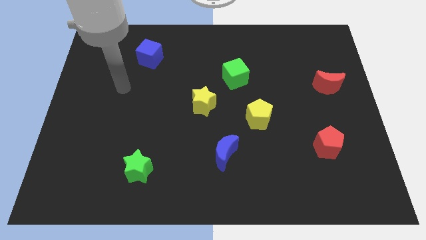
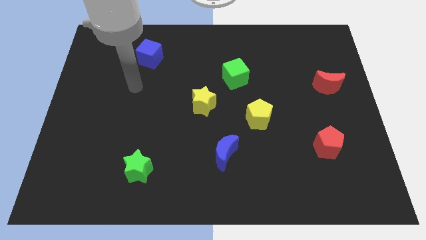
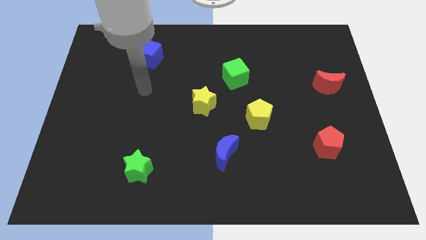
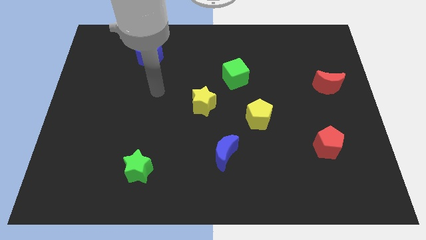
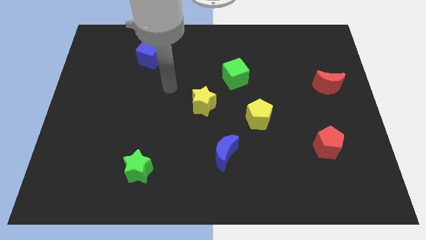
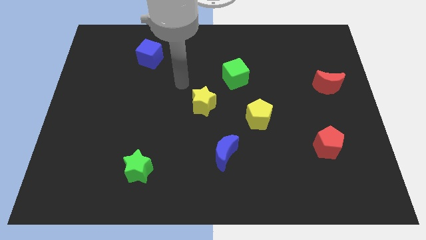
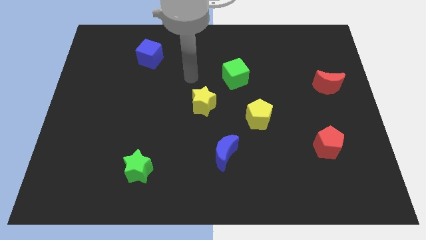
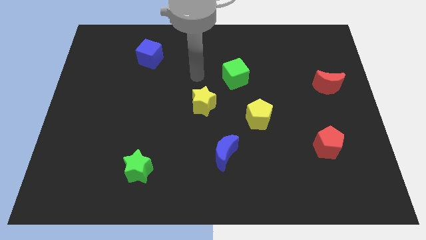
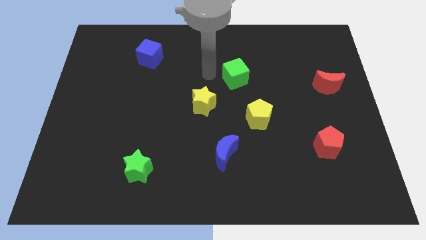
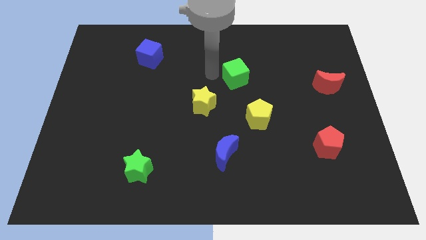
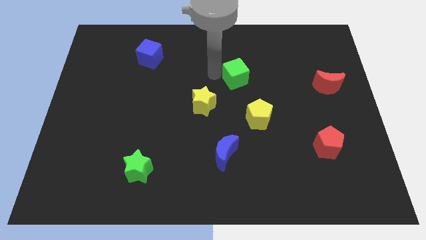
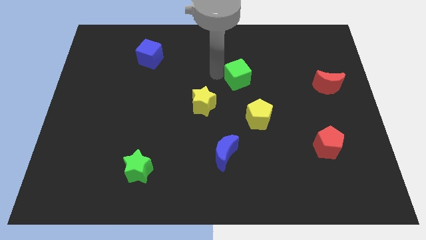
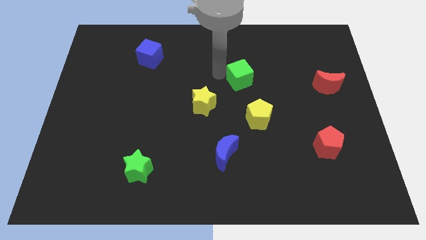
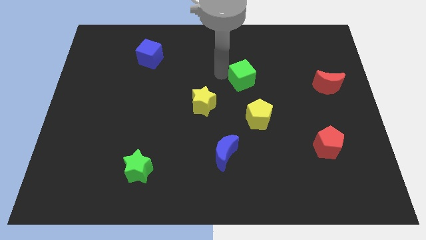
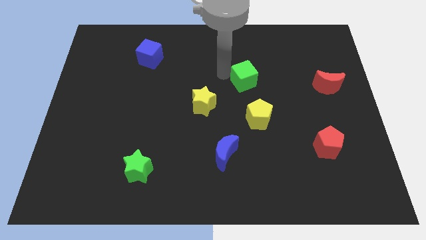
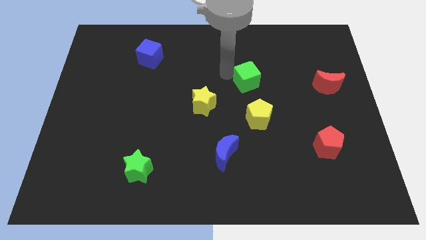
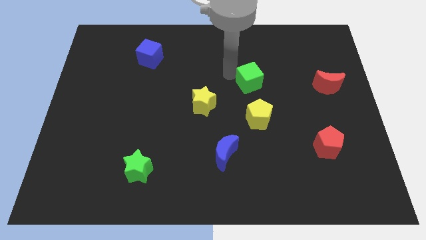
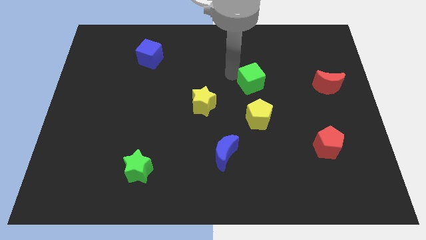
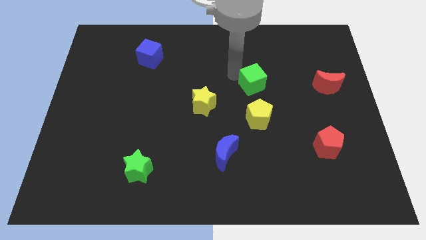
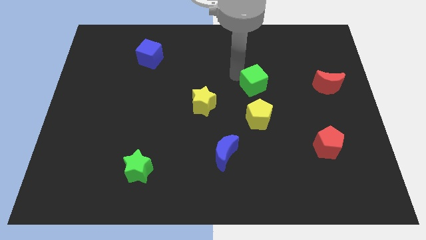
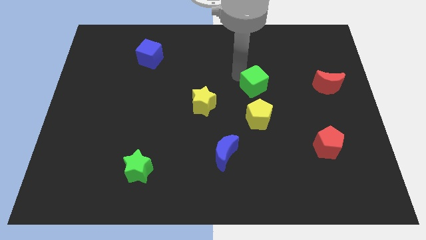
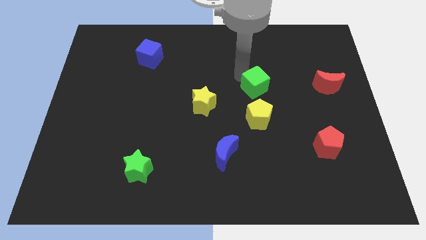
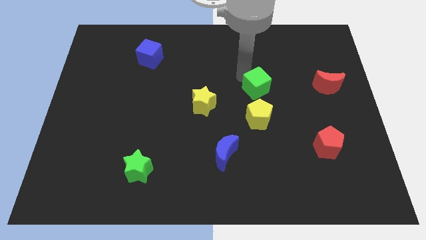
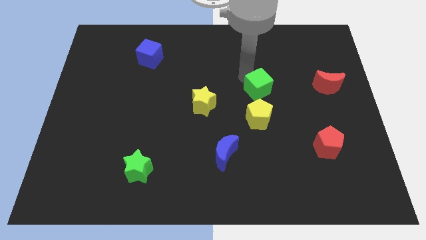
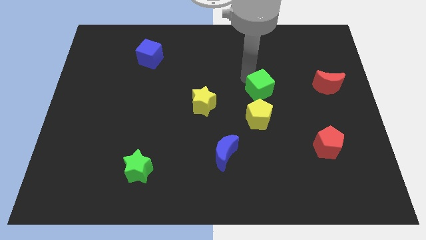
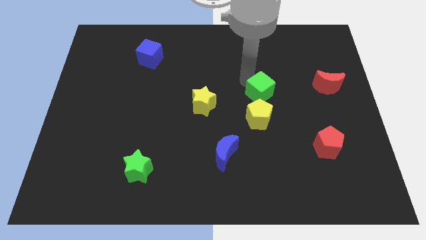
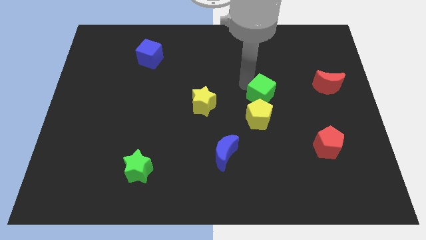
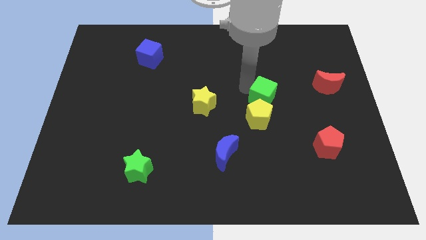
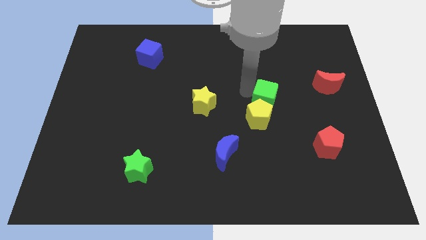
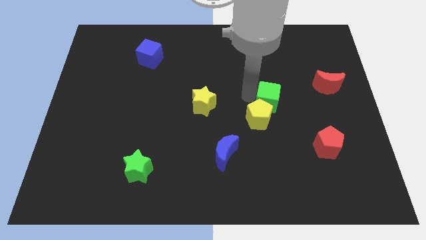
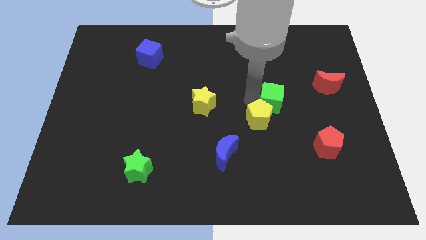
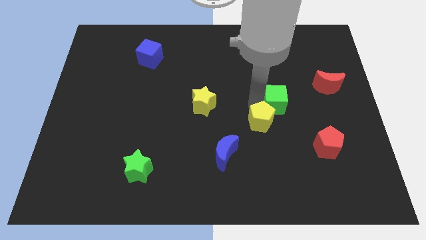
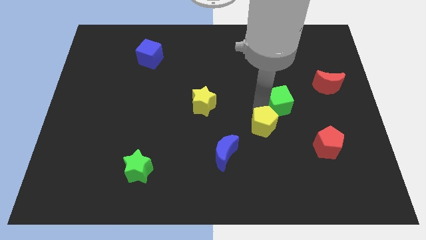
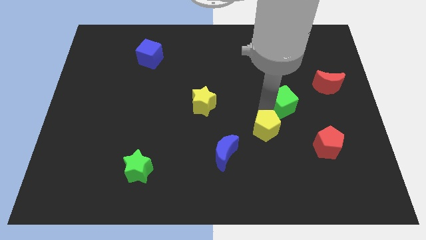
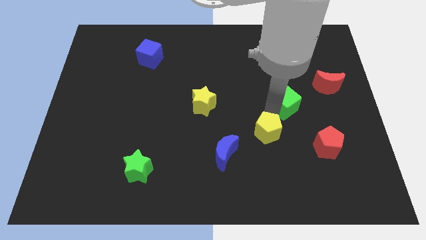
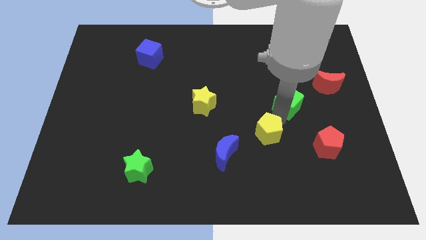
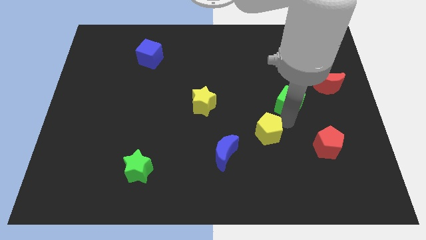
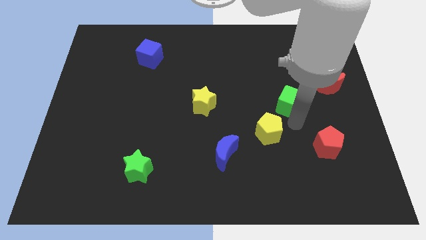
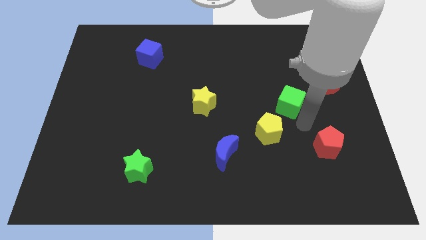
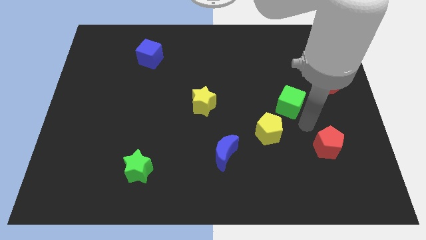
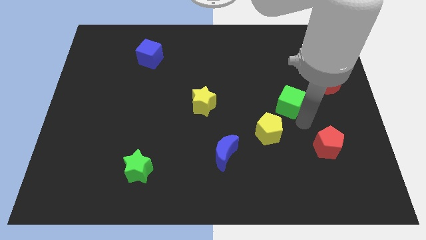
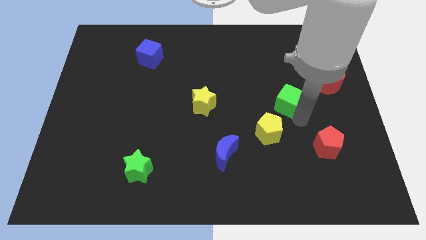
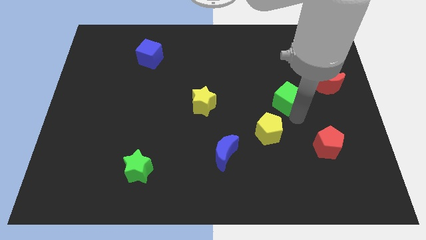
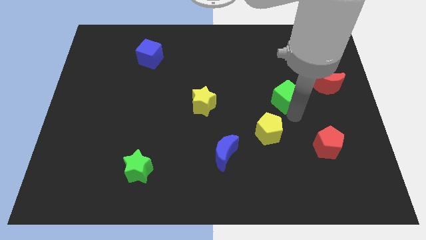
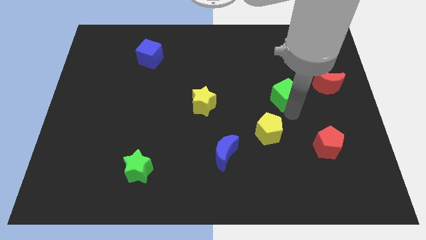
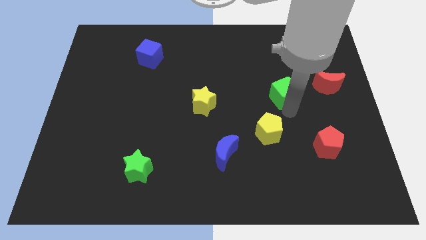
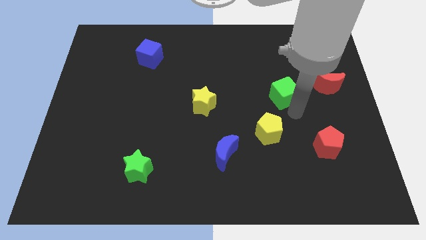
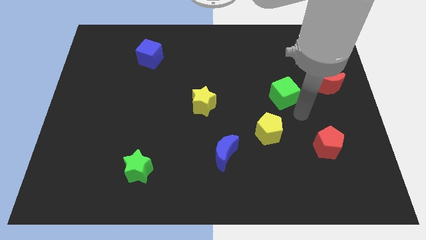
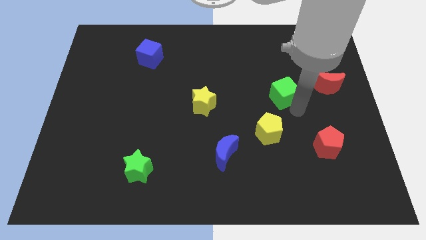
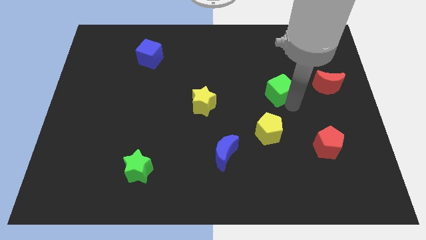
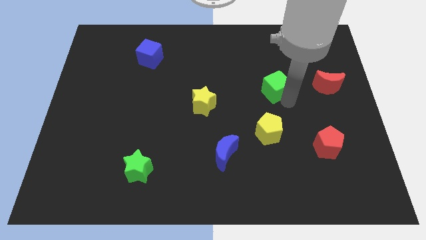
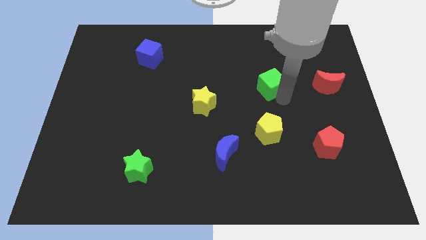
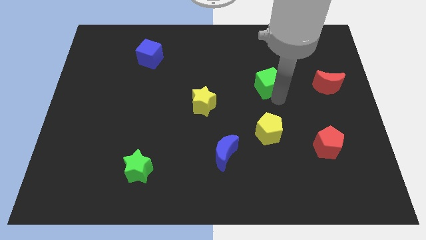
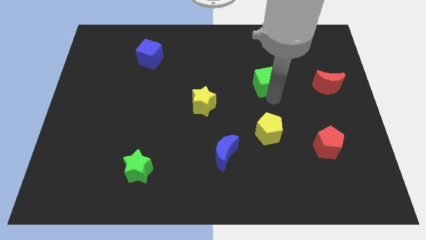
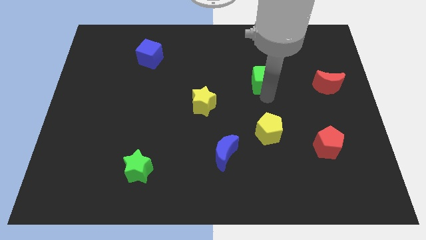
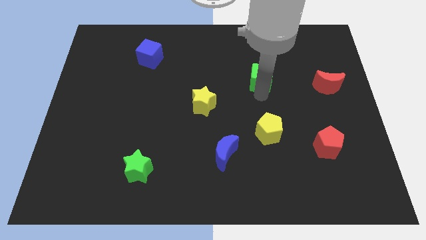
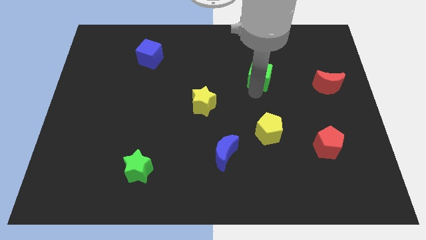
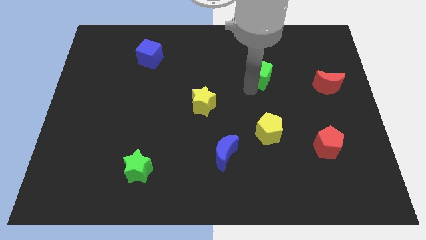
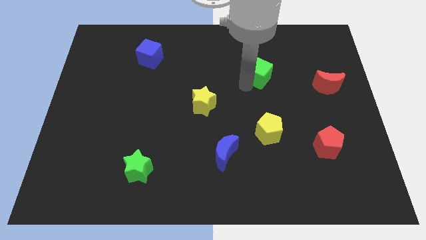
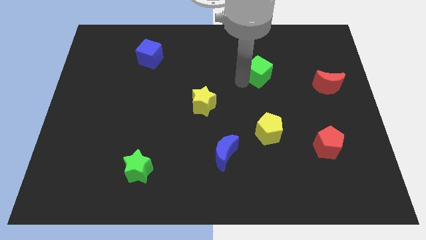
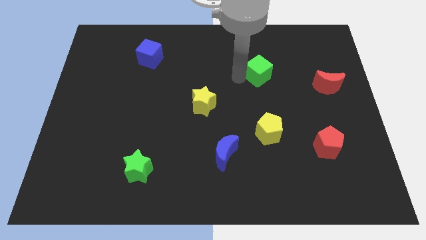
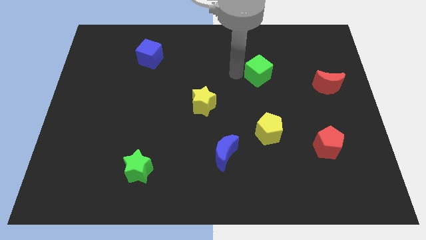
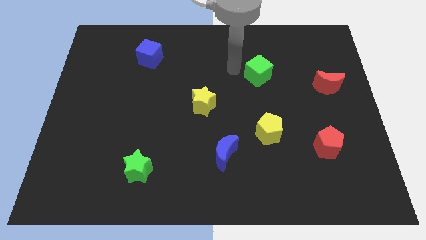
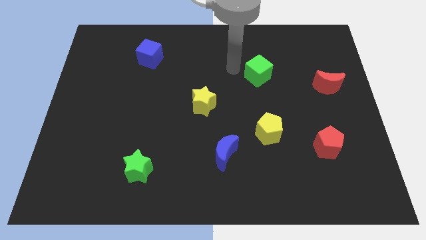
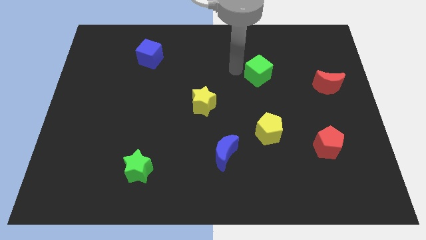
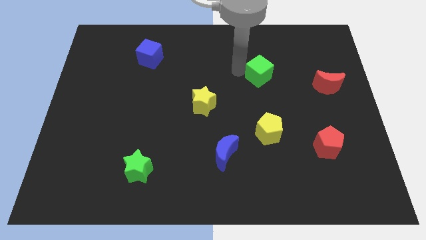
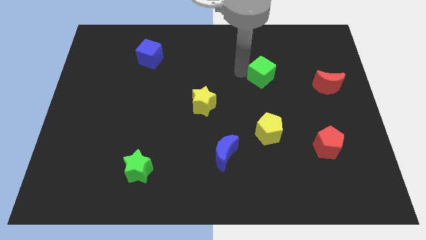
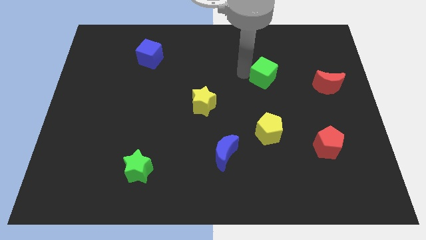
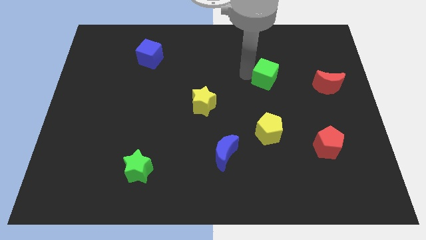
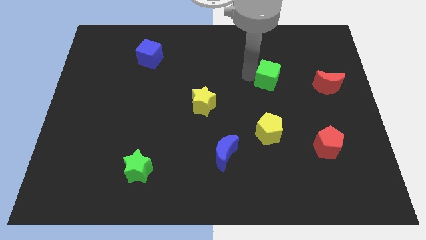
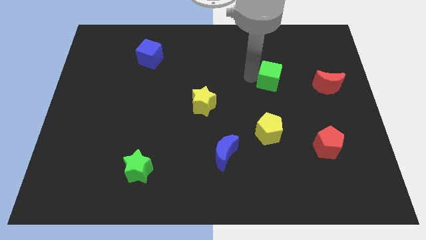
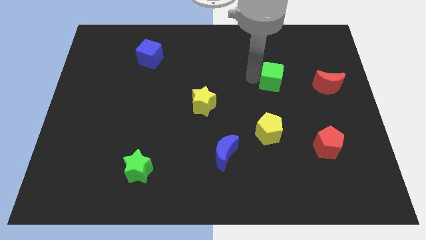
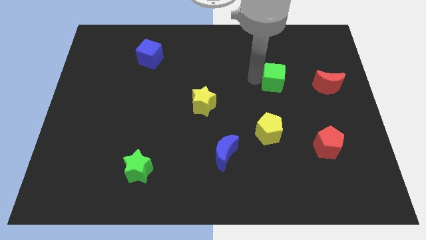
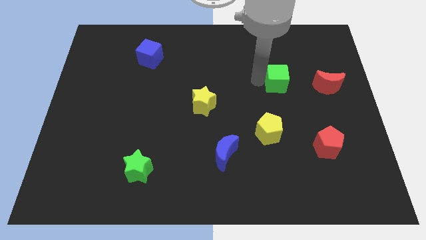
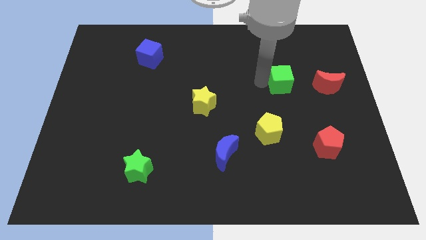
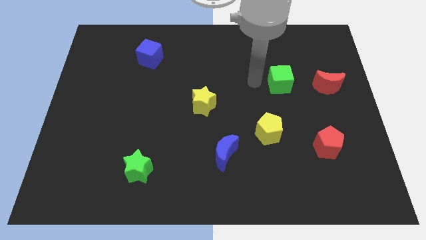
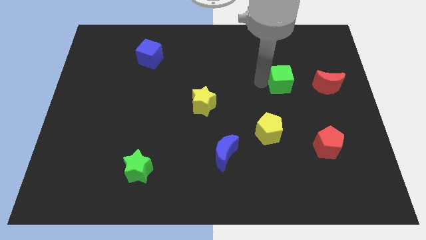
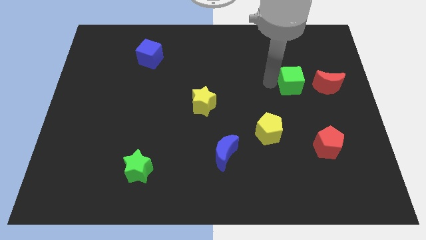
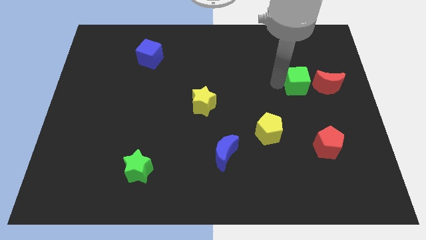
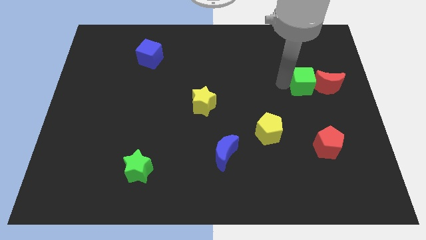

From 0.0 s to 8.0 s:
slide the green cube close to the red moon
